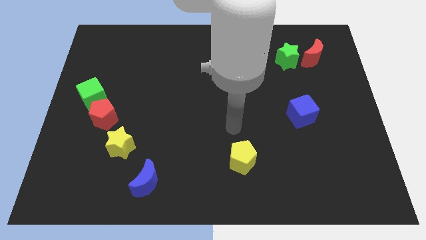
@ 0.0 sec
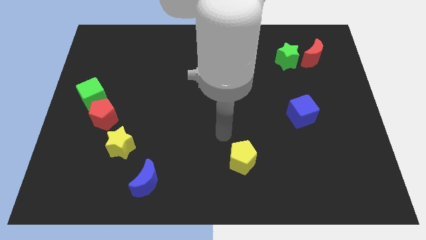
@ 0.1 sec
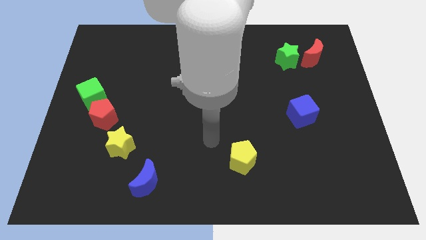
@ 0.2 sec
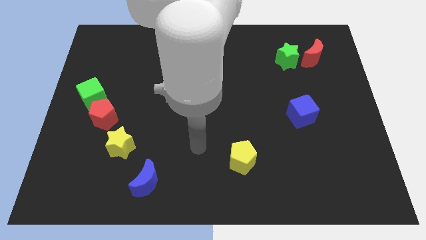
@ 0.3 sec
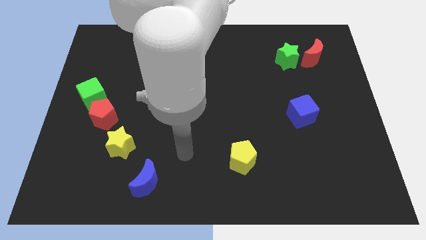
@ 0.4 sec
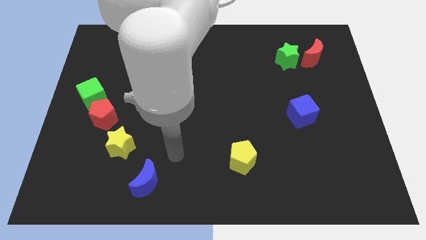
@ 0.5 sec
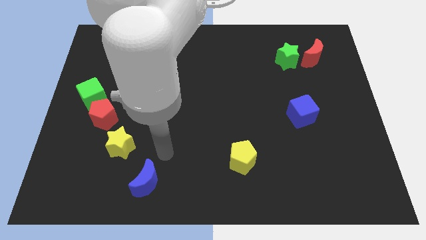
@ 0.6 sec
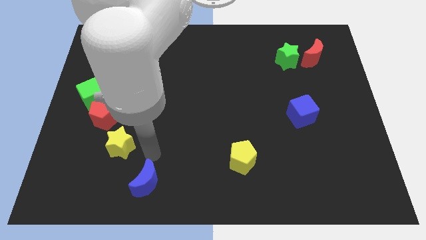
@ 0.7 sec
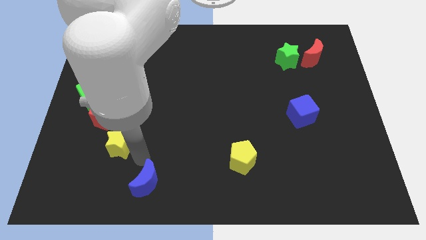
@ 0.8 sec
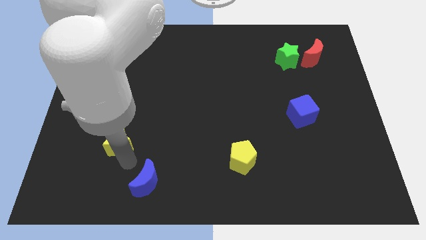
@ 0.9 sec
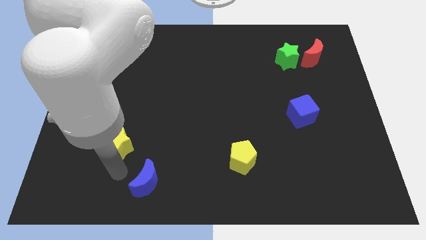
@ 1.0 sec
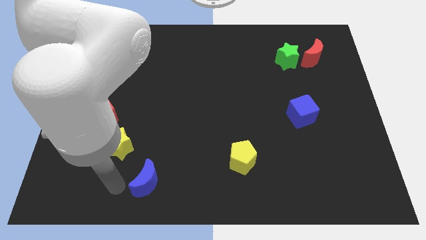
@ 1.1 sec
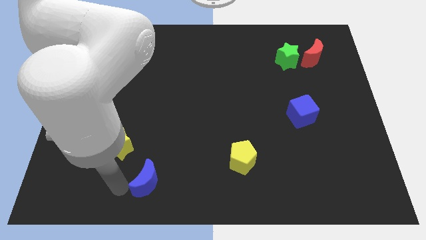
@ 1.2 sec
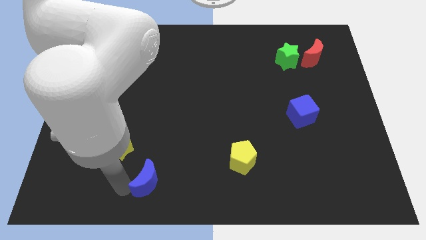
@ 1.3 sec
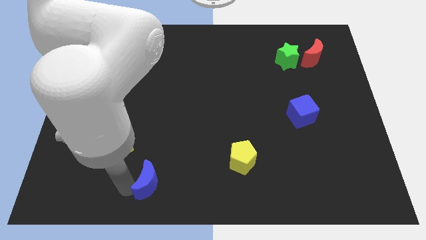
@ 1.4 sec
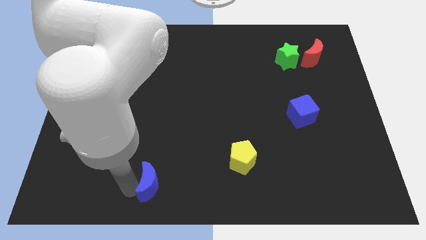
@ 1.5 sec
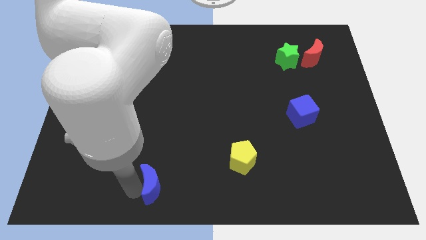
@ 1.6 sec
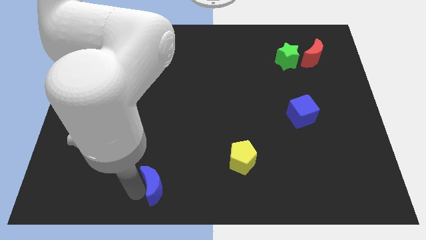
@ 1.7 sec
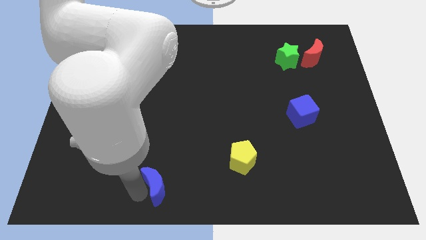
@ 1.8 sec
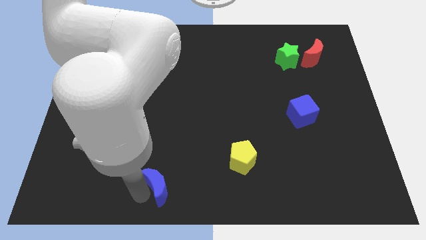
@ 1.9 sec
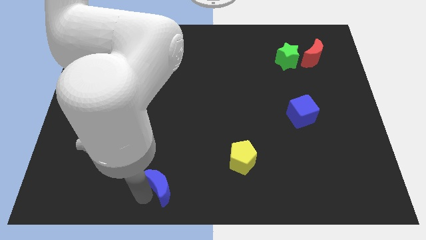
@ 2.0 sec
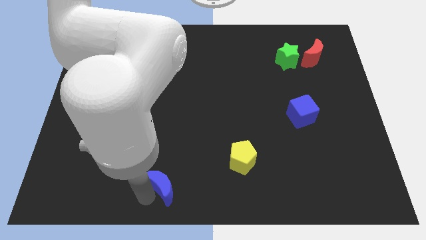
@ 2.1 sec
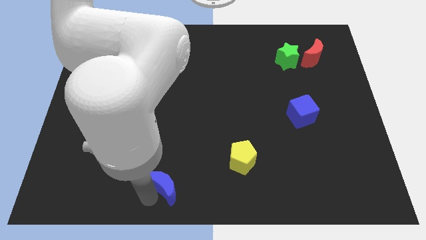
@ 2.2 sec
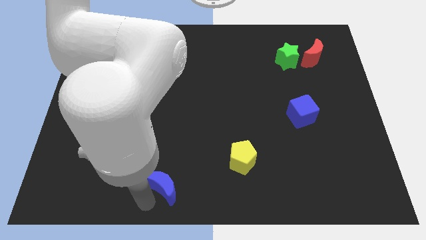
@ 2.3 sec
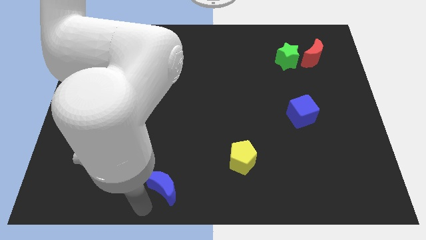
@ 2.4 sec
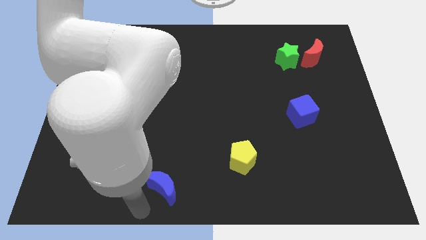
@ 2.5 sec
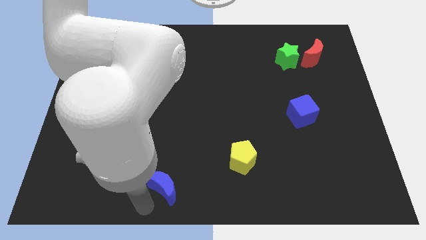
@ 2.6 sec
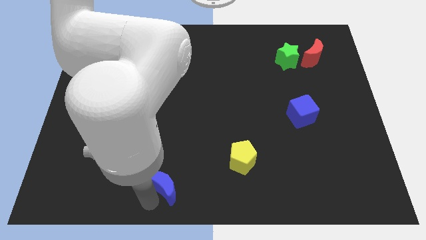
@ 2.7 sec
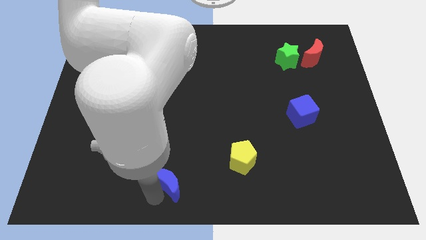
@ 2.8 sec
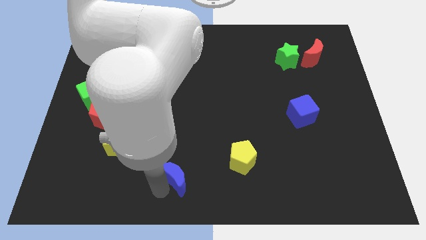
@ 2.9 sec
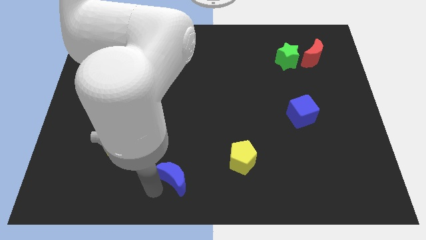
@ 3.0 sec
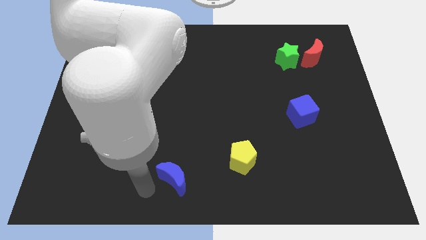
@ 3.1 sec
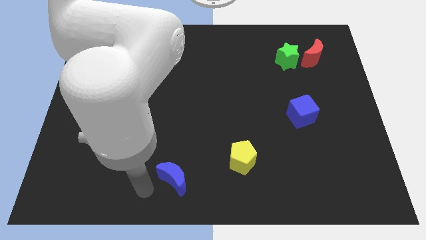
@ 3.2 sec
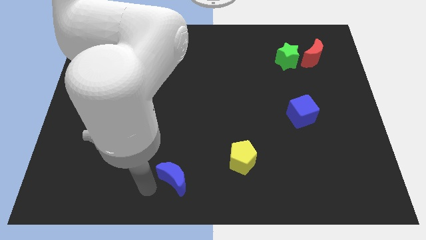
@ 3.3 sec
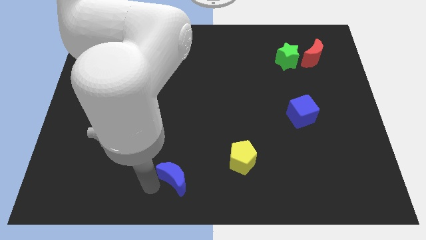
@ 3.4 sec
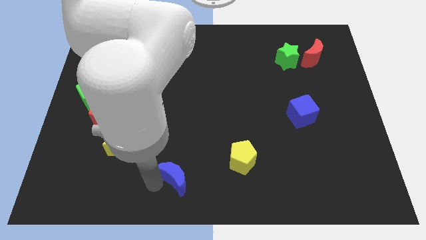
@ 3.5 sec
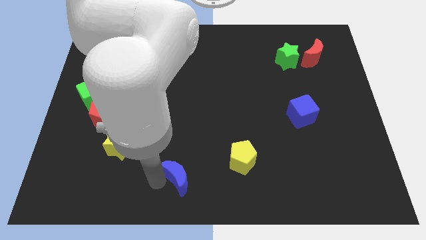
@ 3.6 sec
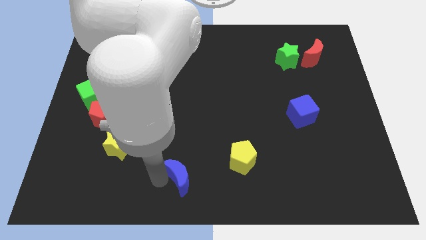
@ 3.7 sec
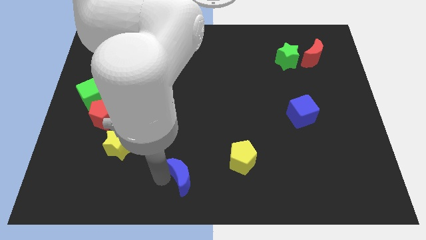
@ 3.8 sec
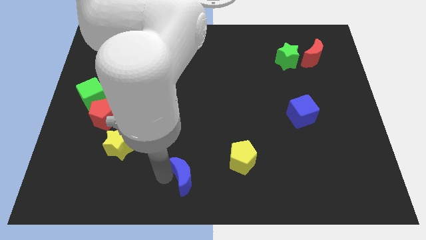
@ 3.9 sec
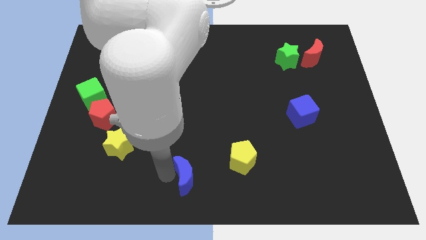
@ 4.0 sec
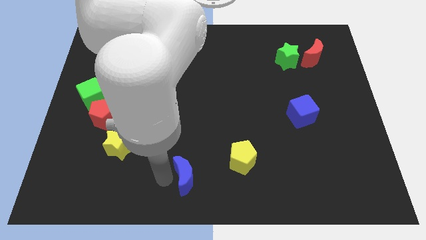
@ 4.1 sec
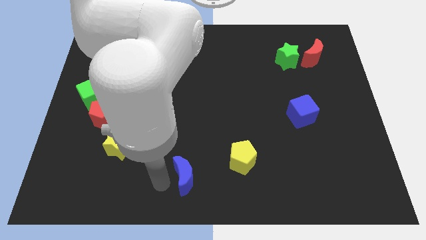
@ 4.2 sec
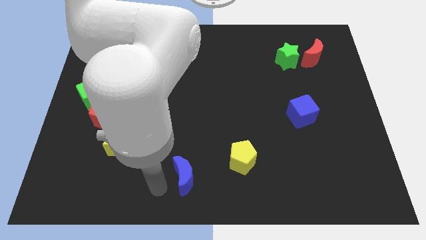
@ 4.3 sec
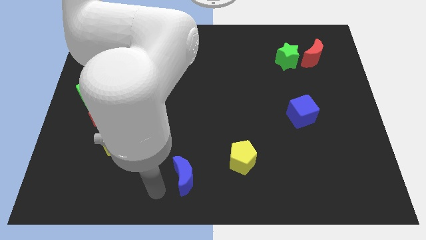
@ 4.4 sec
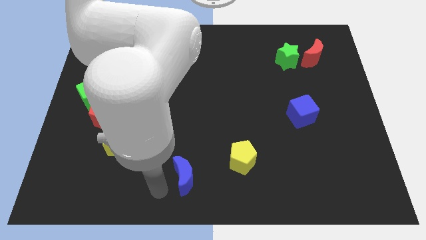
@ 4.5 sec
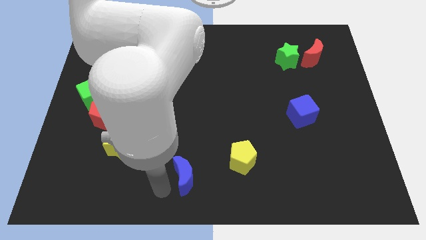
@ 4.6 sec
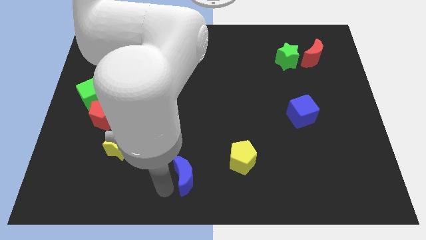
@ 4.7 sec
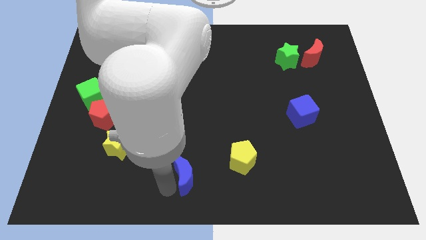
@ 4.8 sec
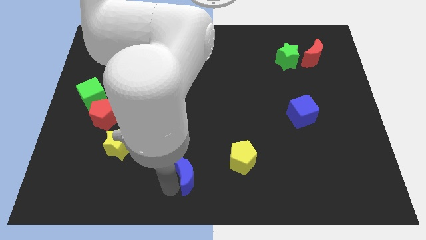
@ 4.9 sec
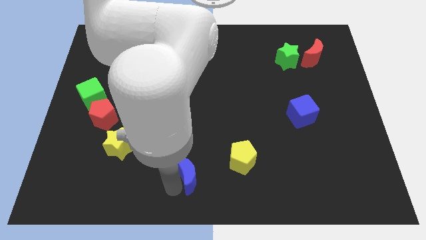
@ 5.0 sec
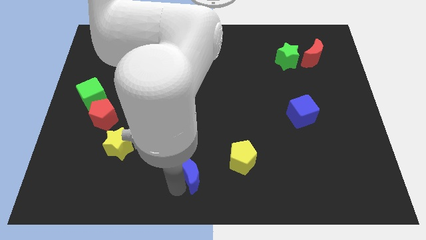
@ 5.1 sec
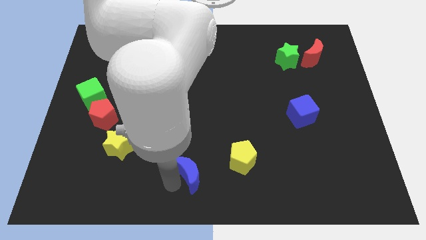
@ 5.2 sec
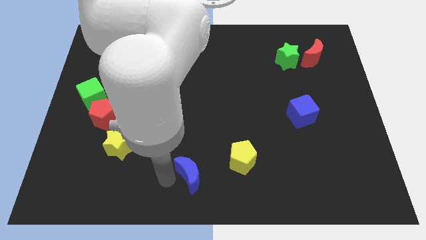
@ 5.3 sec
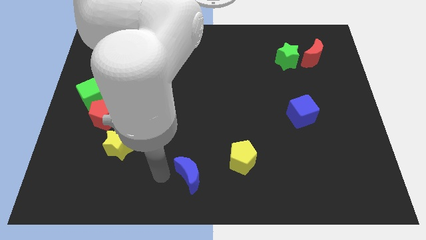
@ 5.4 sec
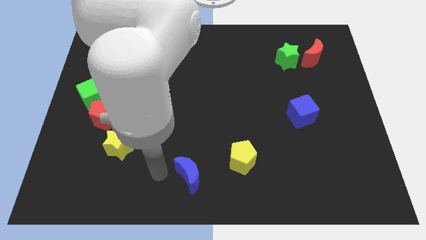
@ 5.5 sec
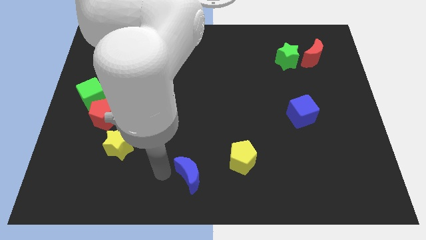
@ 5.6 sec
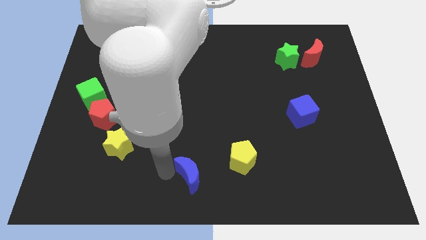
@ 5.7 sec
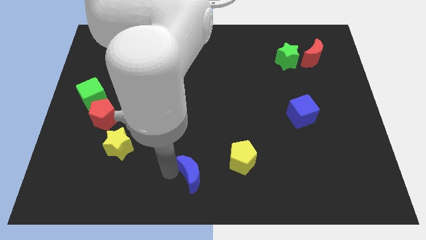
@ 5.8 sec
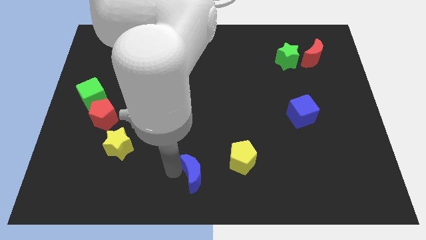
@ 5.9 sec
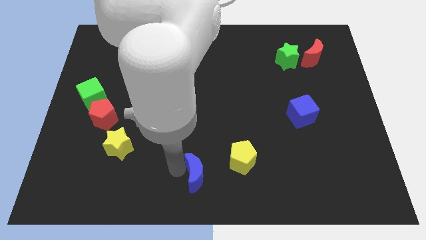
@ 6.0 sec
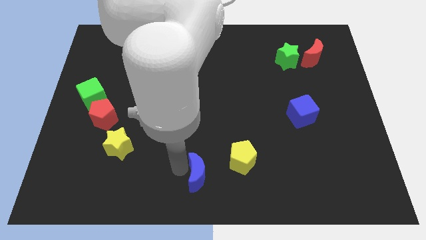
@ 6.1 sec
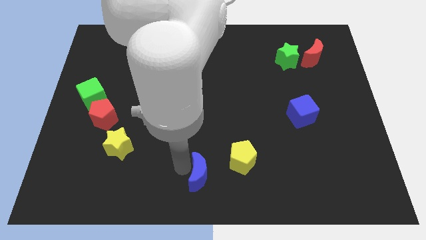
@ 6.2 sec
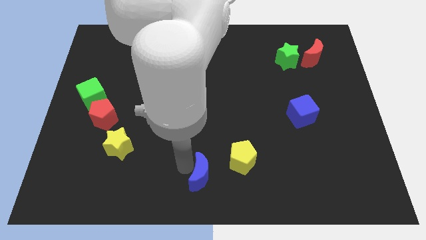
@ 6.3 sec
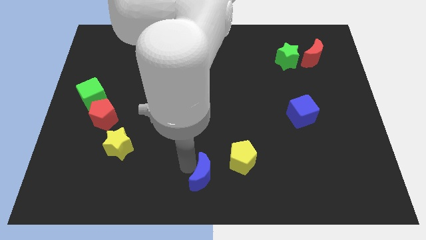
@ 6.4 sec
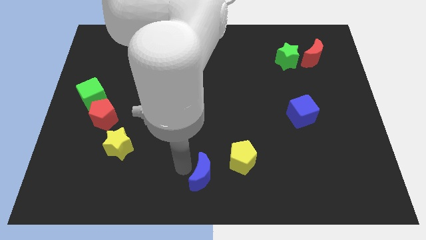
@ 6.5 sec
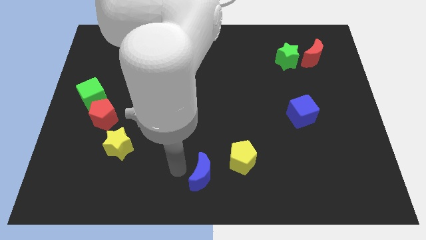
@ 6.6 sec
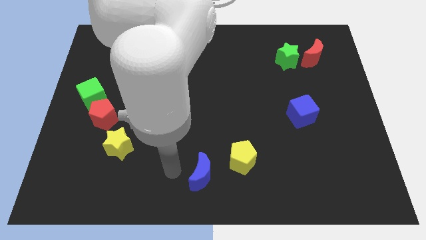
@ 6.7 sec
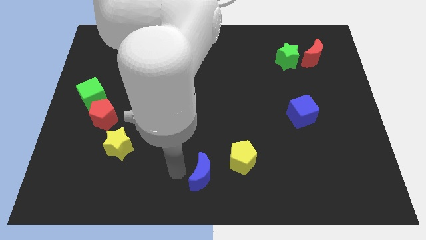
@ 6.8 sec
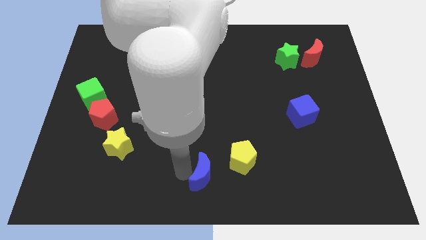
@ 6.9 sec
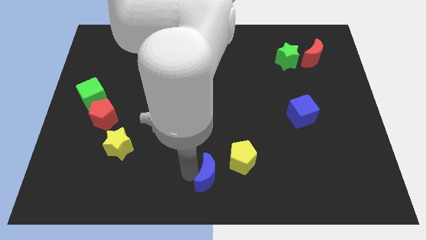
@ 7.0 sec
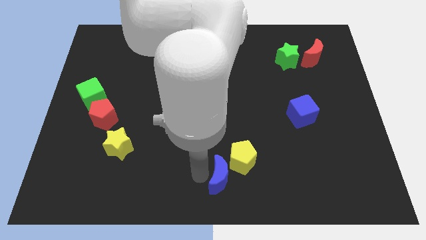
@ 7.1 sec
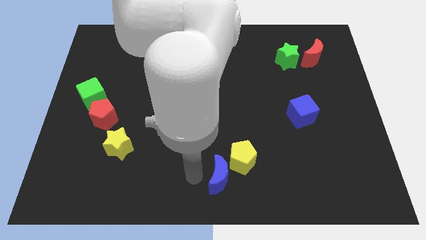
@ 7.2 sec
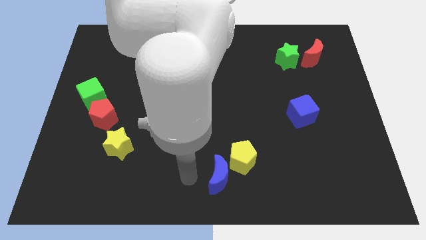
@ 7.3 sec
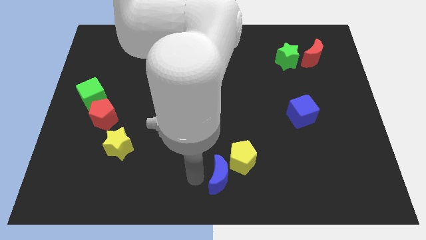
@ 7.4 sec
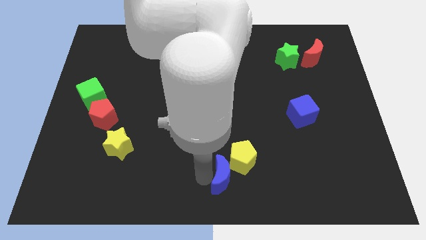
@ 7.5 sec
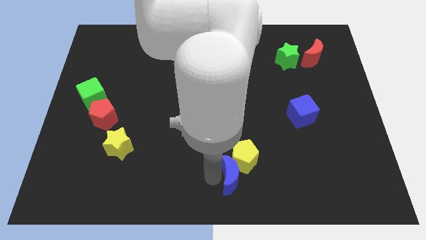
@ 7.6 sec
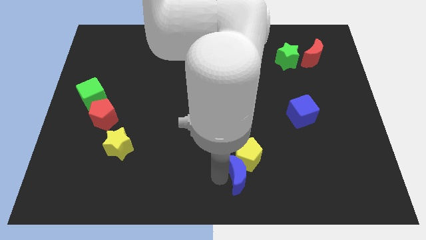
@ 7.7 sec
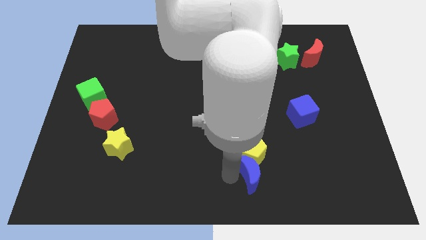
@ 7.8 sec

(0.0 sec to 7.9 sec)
move the blue moon to the right
